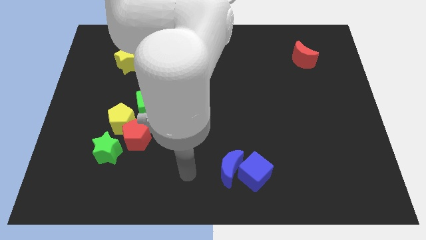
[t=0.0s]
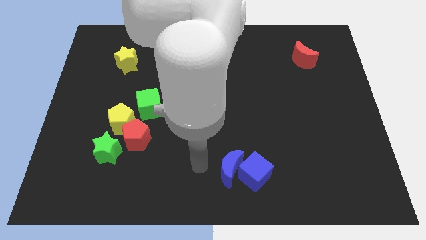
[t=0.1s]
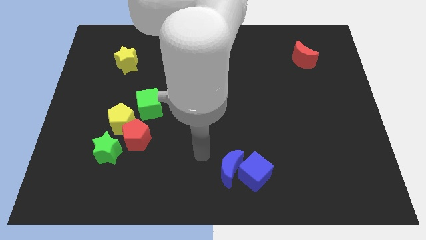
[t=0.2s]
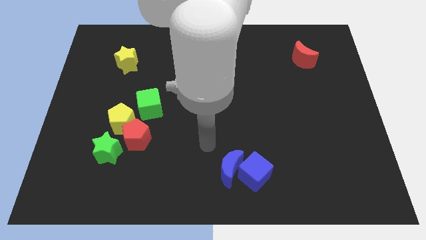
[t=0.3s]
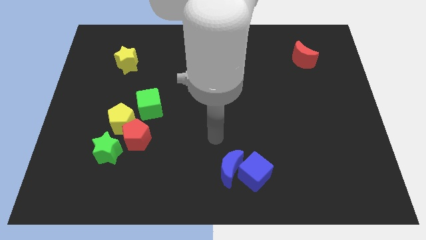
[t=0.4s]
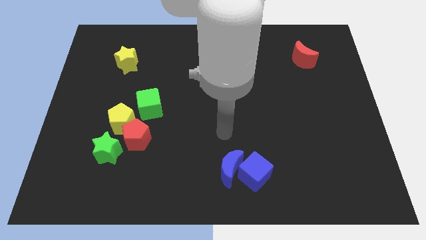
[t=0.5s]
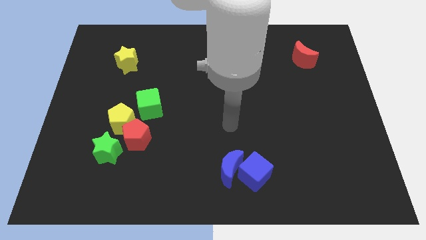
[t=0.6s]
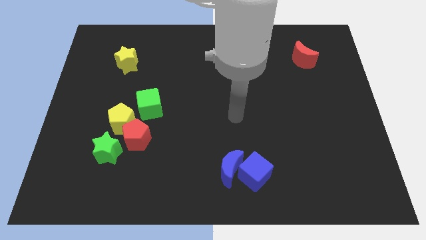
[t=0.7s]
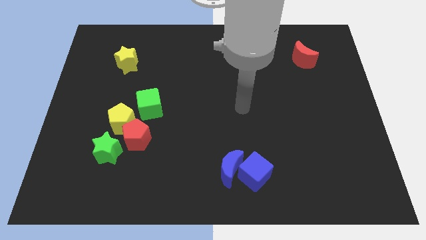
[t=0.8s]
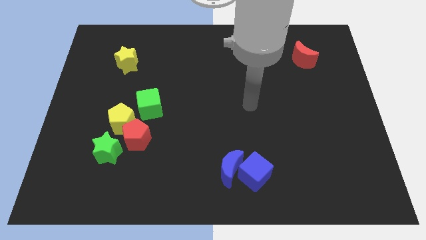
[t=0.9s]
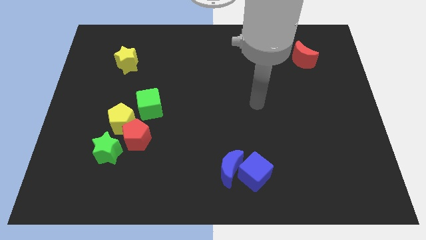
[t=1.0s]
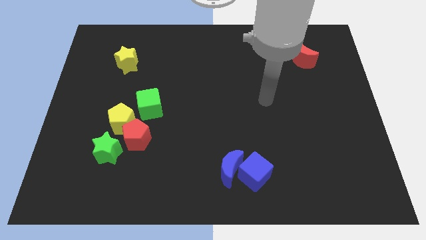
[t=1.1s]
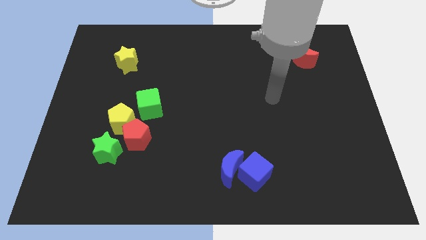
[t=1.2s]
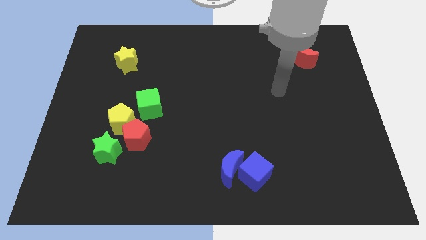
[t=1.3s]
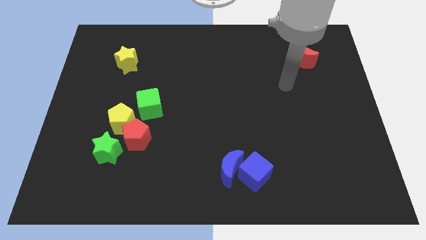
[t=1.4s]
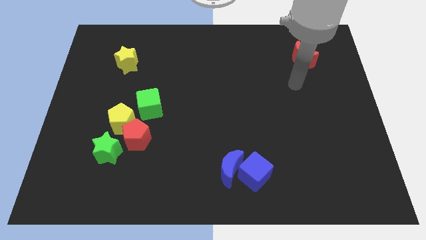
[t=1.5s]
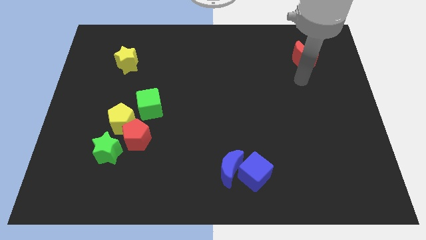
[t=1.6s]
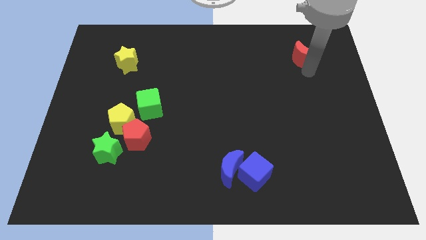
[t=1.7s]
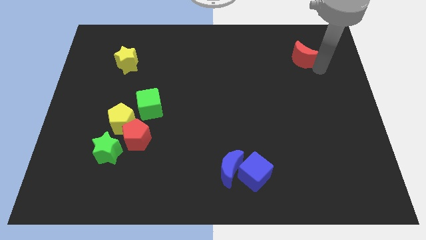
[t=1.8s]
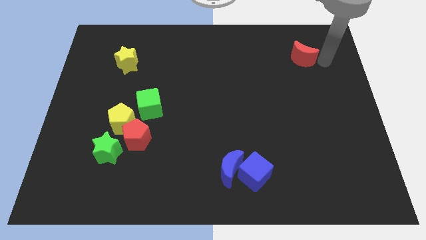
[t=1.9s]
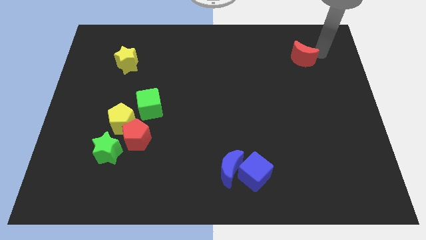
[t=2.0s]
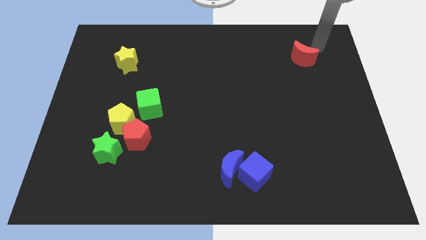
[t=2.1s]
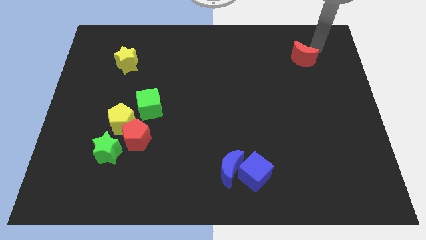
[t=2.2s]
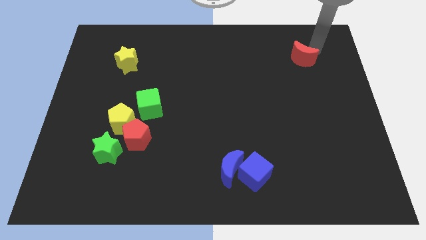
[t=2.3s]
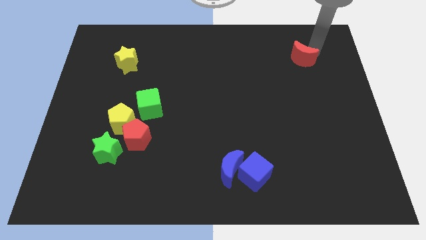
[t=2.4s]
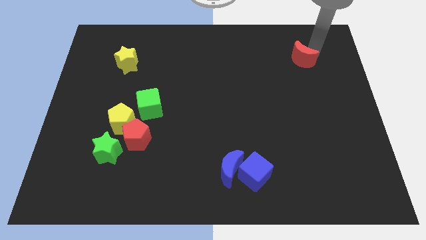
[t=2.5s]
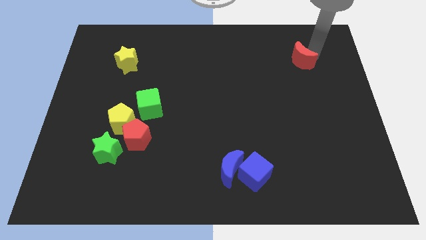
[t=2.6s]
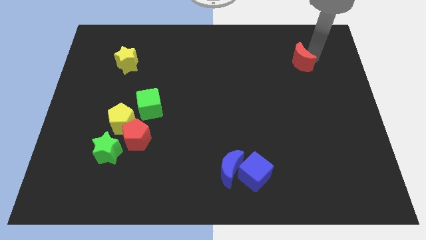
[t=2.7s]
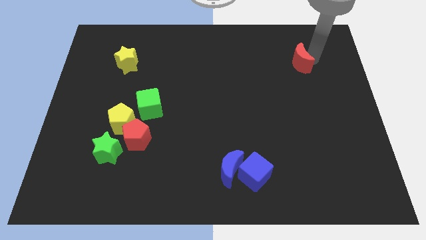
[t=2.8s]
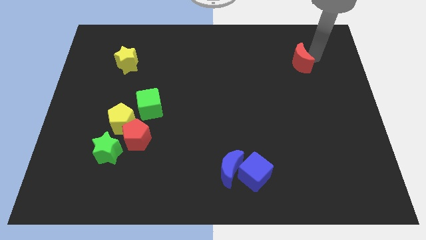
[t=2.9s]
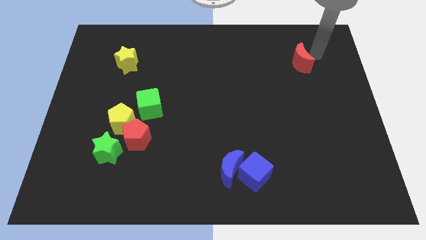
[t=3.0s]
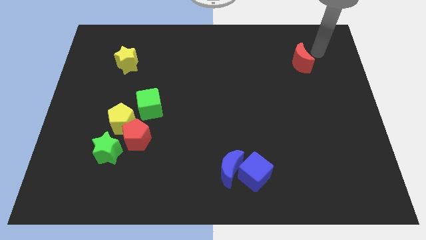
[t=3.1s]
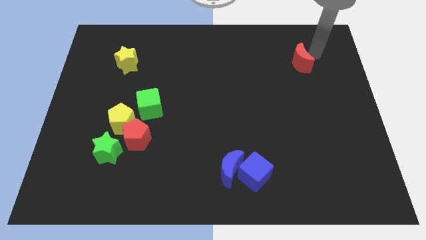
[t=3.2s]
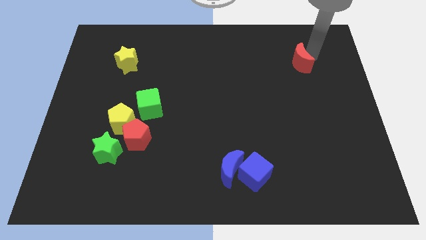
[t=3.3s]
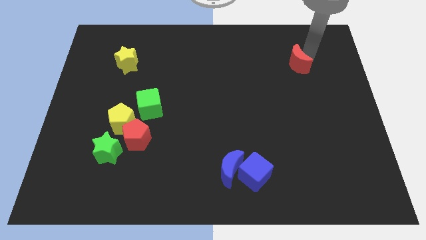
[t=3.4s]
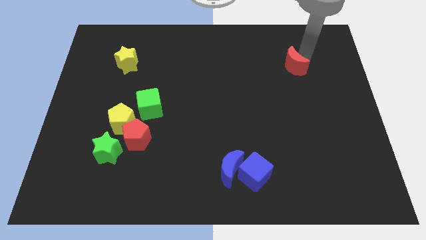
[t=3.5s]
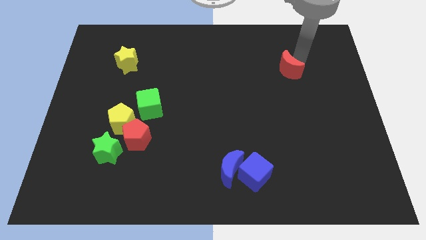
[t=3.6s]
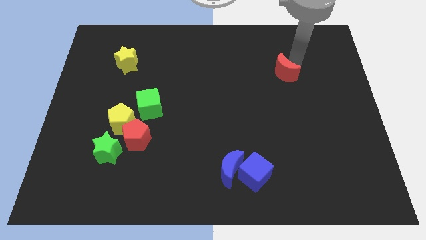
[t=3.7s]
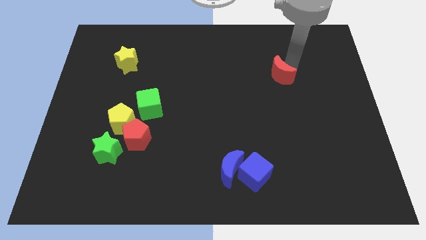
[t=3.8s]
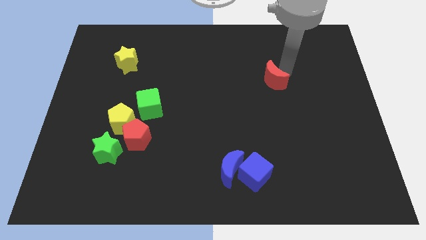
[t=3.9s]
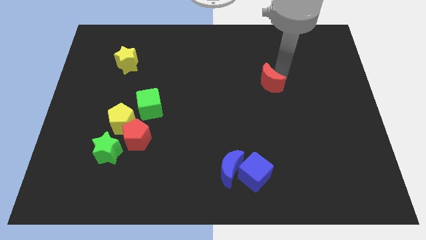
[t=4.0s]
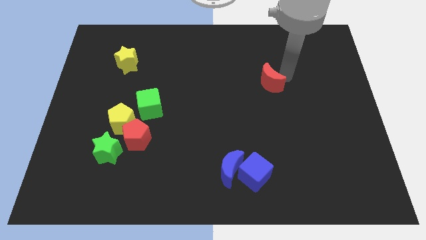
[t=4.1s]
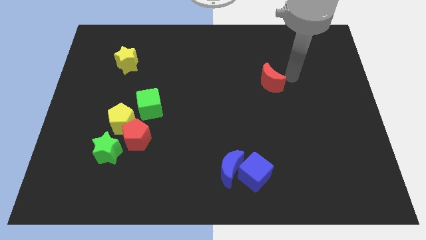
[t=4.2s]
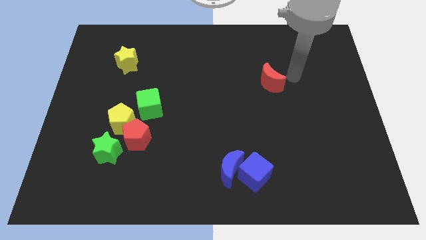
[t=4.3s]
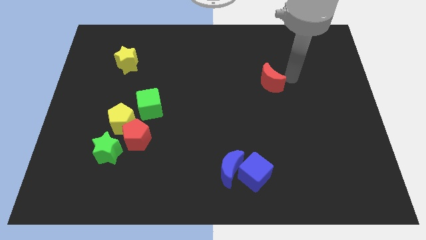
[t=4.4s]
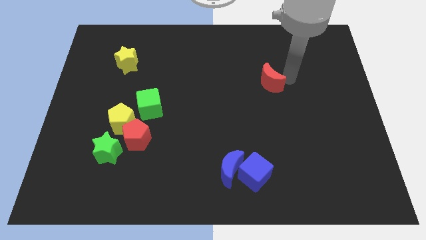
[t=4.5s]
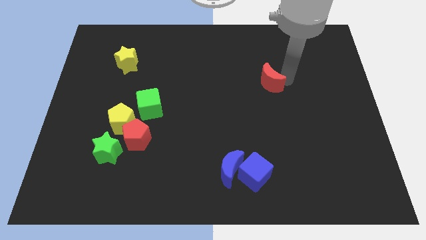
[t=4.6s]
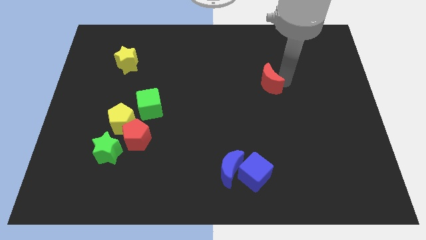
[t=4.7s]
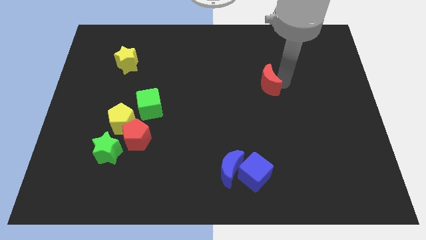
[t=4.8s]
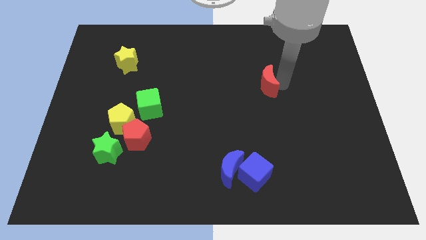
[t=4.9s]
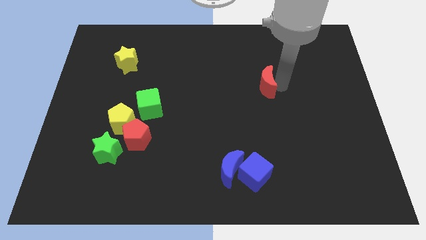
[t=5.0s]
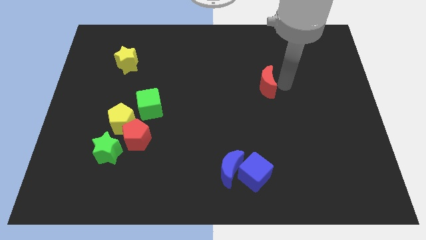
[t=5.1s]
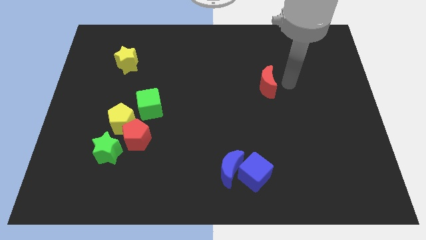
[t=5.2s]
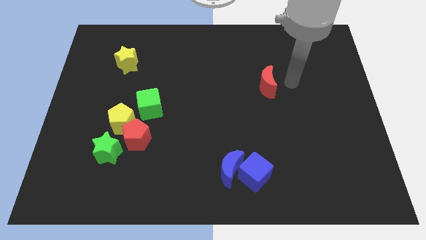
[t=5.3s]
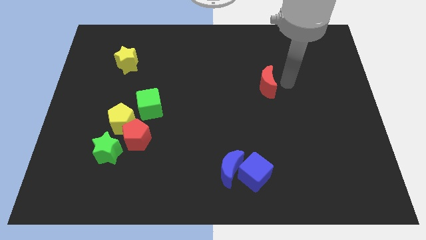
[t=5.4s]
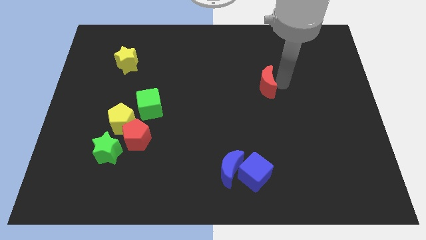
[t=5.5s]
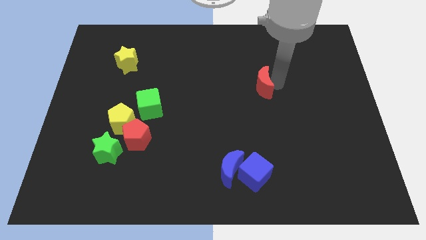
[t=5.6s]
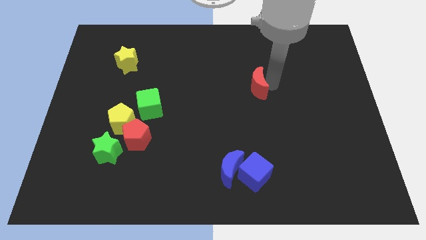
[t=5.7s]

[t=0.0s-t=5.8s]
move the red moon to the center
